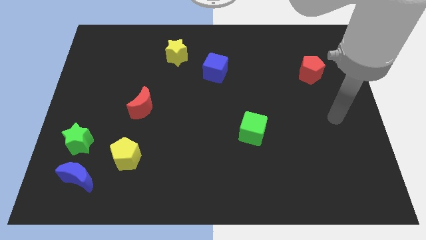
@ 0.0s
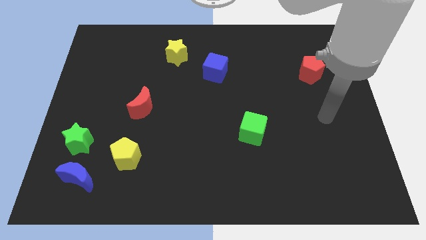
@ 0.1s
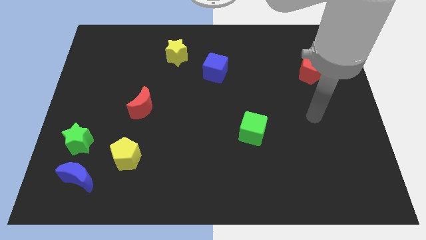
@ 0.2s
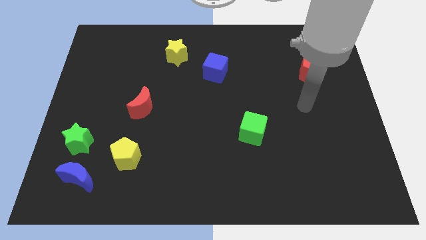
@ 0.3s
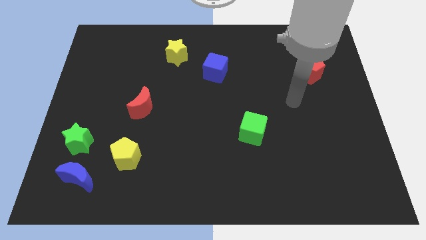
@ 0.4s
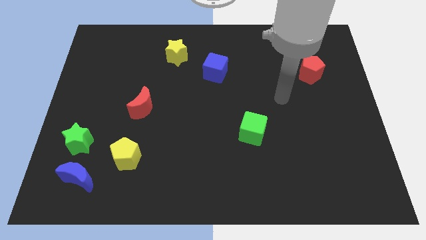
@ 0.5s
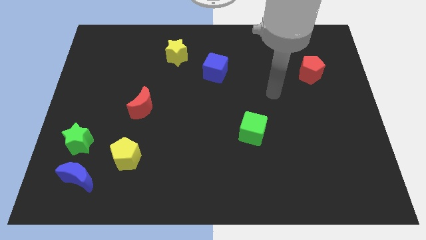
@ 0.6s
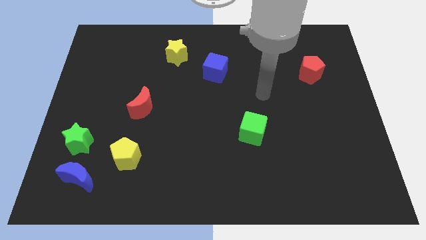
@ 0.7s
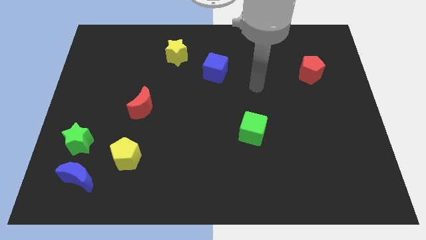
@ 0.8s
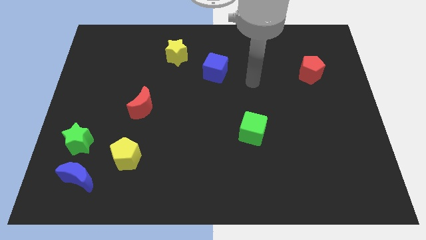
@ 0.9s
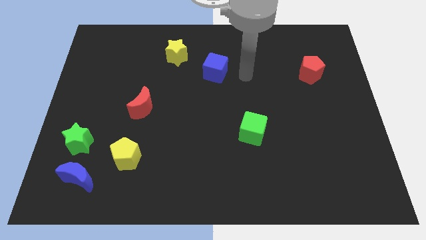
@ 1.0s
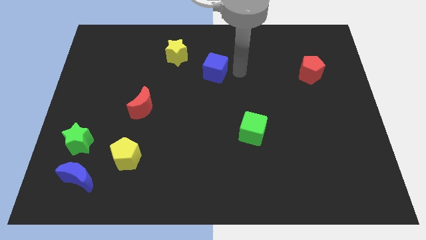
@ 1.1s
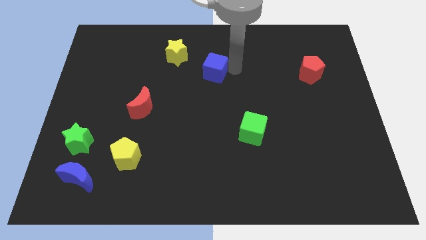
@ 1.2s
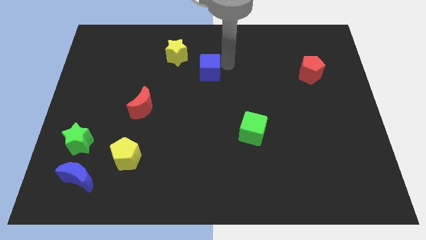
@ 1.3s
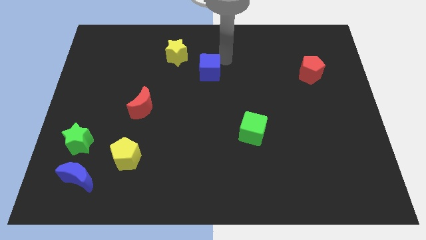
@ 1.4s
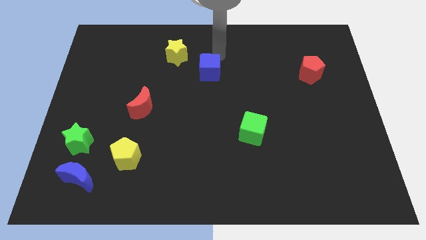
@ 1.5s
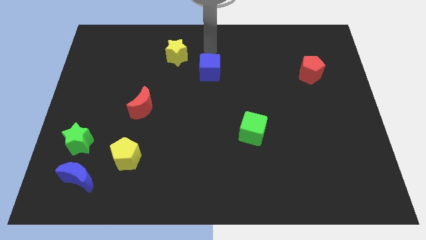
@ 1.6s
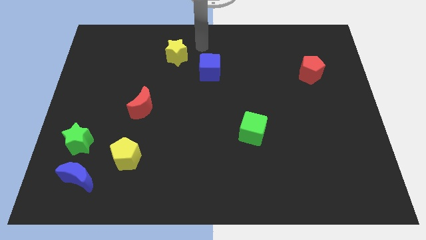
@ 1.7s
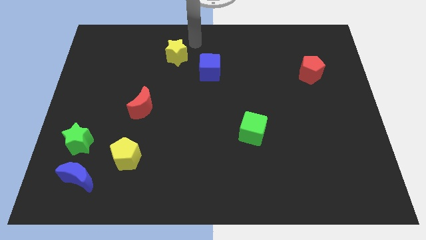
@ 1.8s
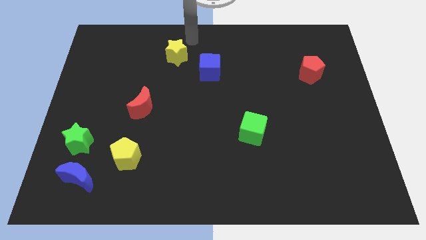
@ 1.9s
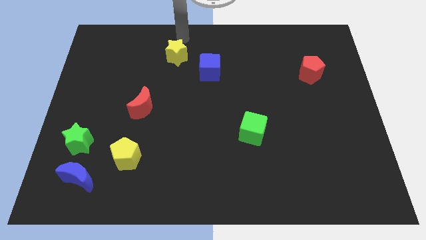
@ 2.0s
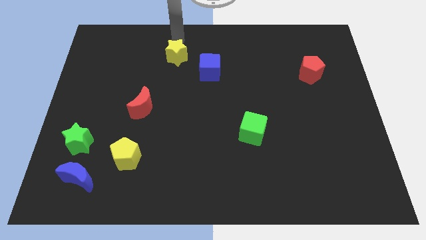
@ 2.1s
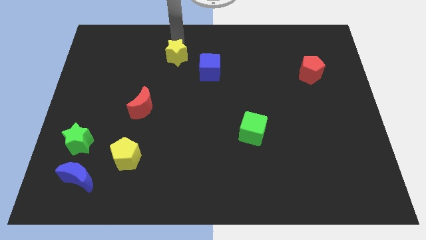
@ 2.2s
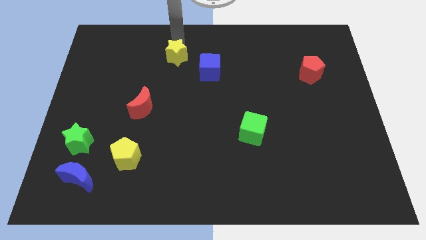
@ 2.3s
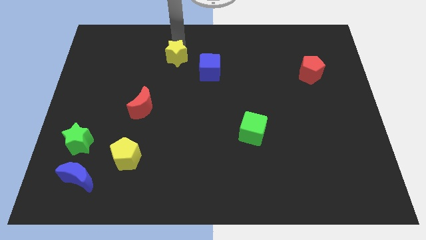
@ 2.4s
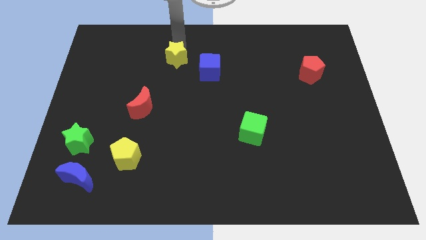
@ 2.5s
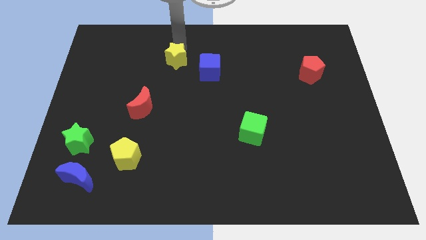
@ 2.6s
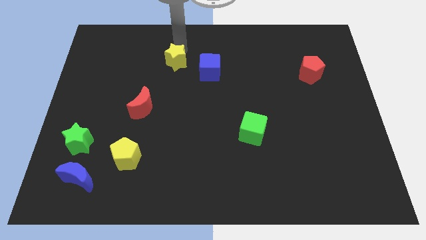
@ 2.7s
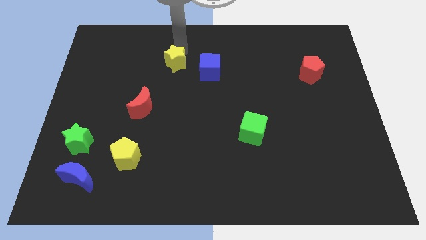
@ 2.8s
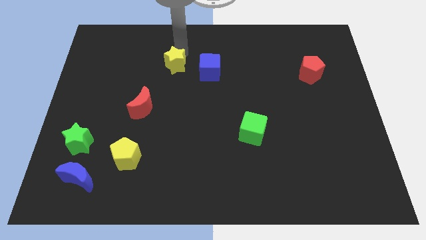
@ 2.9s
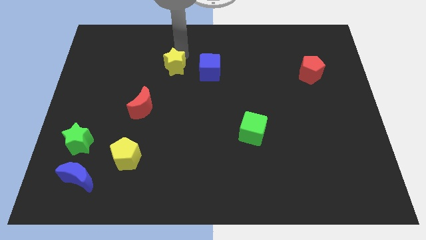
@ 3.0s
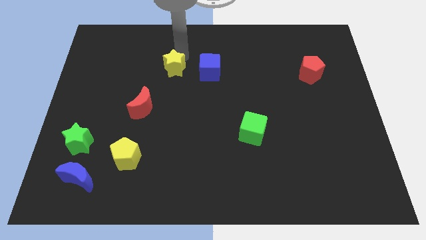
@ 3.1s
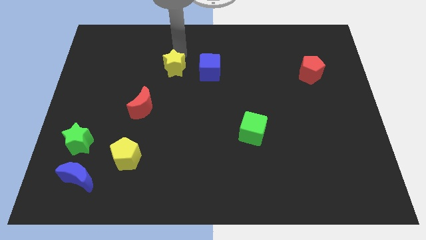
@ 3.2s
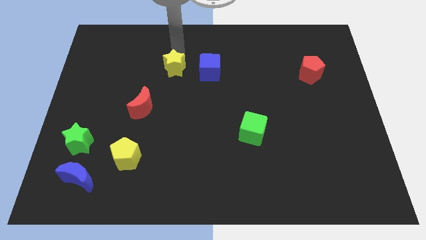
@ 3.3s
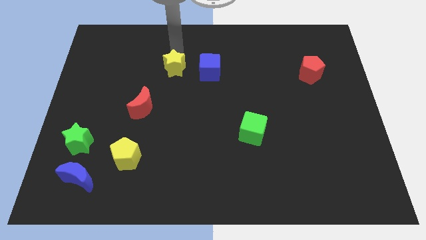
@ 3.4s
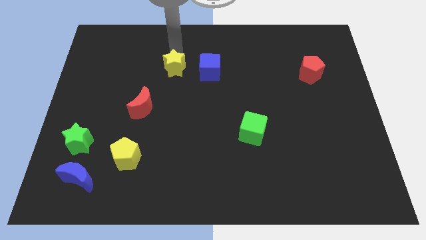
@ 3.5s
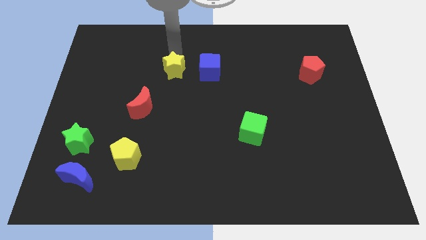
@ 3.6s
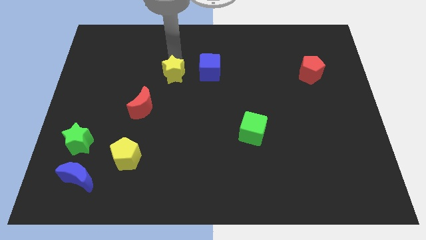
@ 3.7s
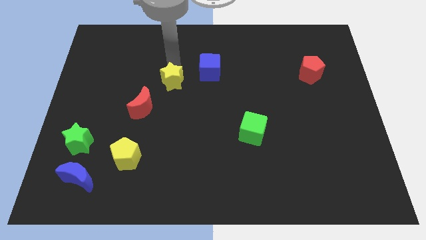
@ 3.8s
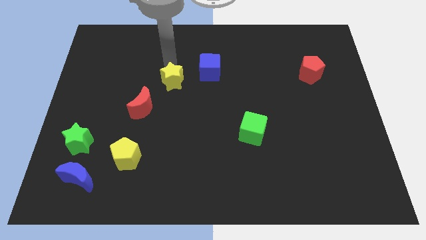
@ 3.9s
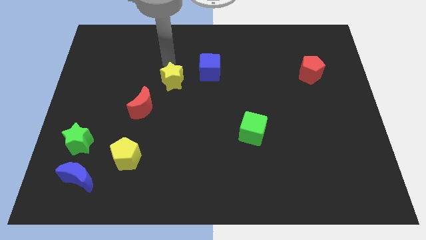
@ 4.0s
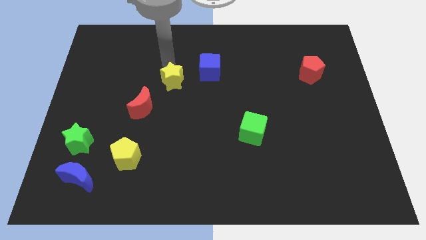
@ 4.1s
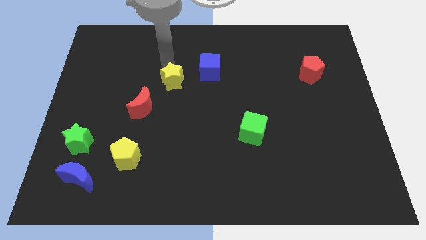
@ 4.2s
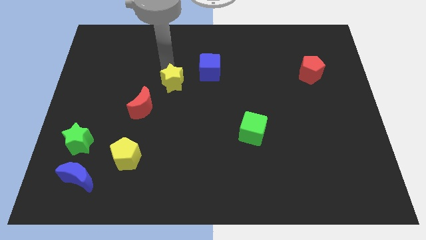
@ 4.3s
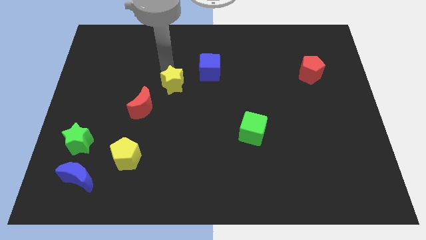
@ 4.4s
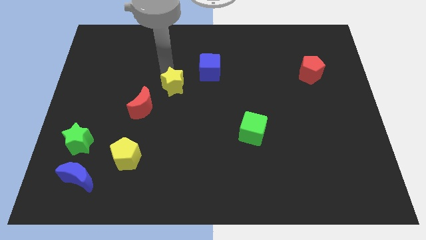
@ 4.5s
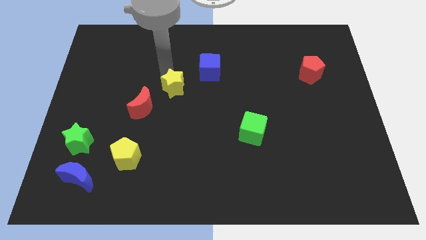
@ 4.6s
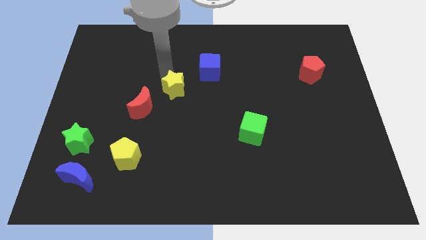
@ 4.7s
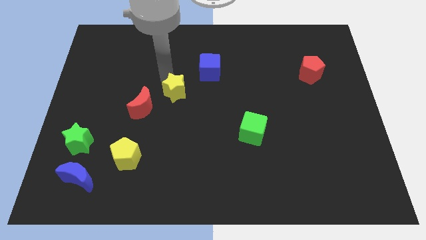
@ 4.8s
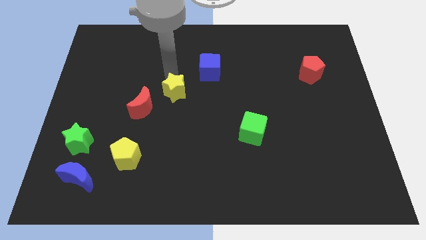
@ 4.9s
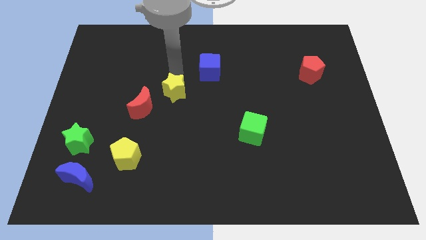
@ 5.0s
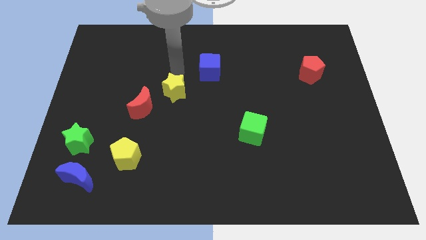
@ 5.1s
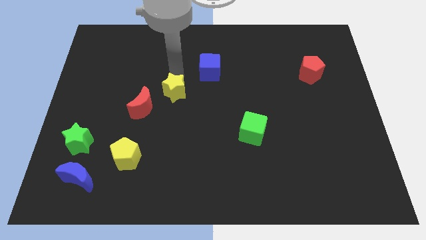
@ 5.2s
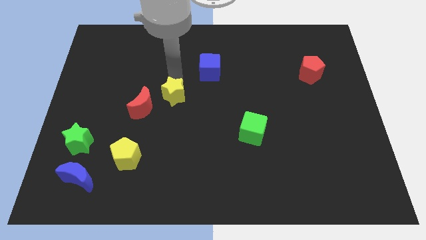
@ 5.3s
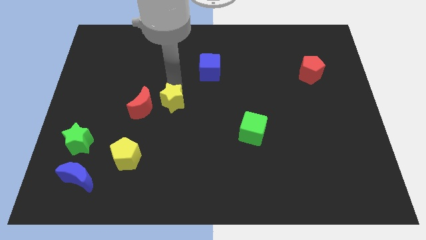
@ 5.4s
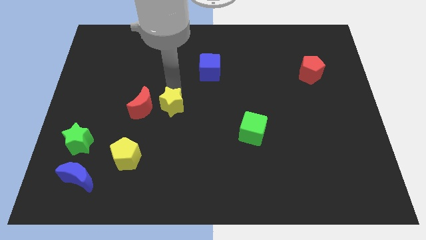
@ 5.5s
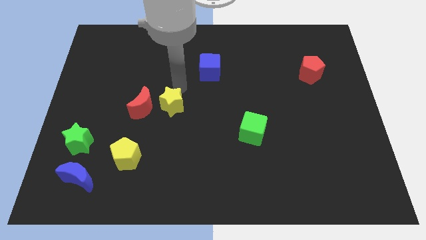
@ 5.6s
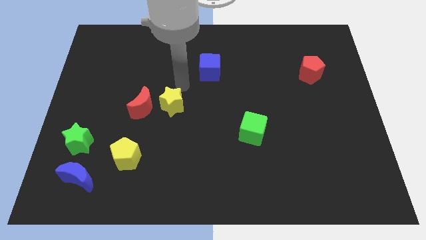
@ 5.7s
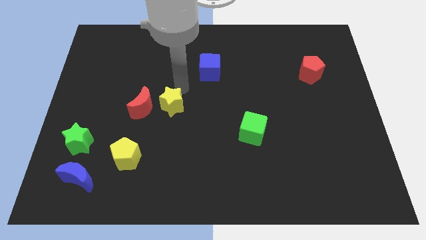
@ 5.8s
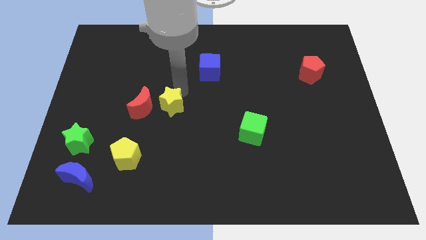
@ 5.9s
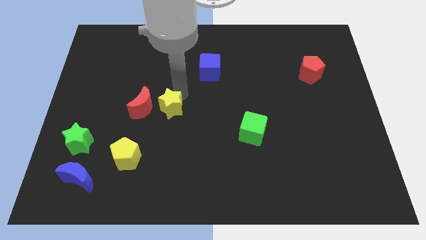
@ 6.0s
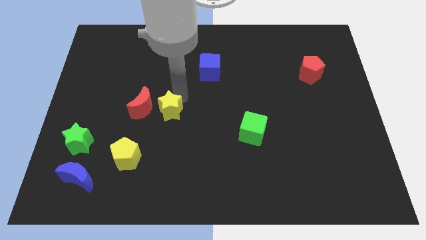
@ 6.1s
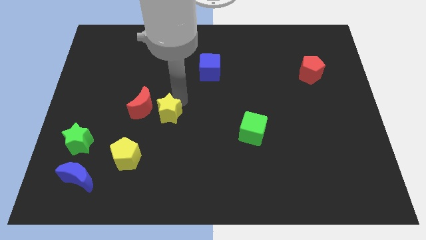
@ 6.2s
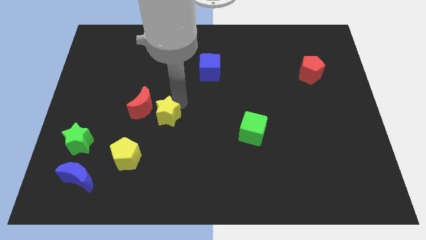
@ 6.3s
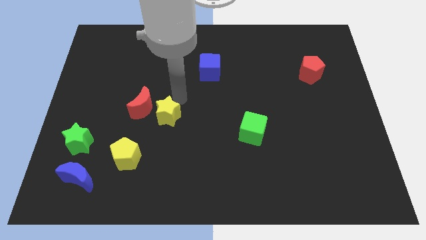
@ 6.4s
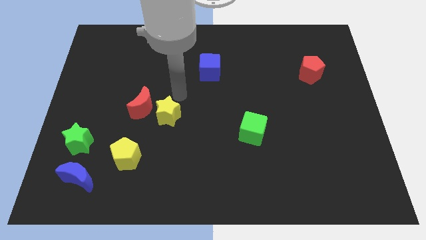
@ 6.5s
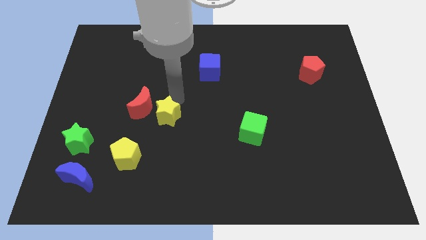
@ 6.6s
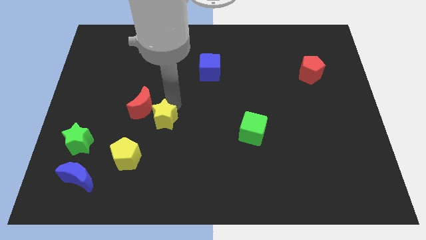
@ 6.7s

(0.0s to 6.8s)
push the yellow star to the top right side of the yellow pentagon
